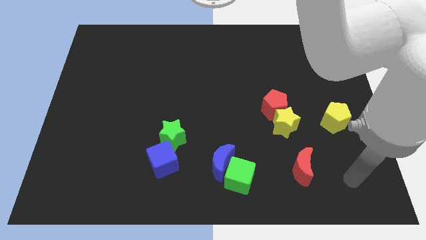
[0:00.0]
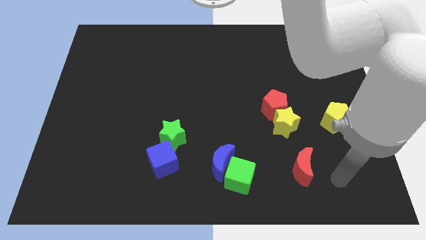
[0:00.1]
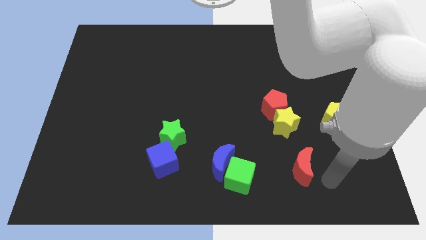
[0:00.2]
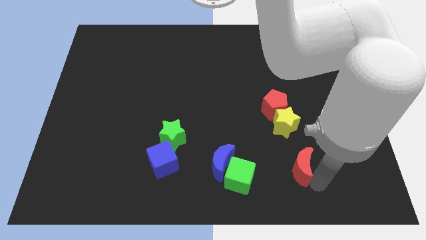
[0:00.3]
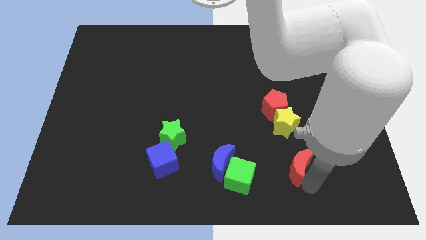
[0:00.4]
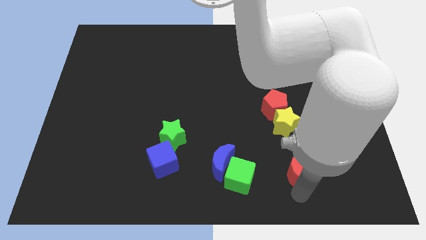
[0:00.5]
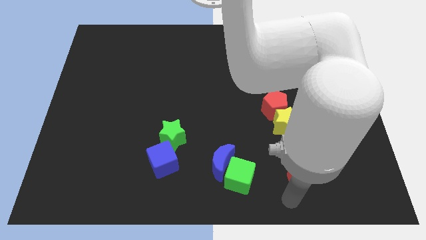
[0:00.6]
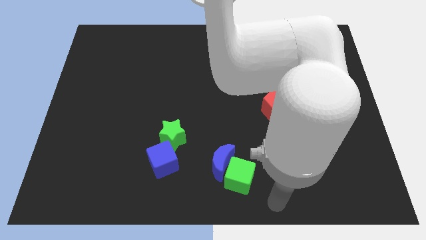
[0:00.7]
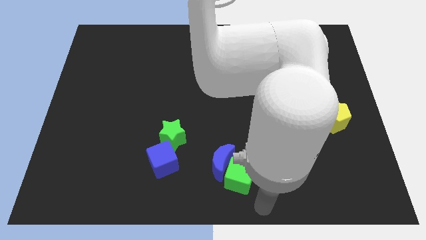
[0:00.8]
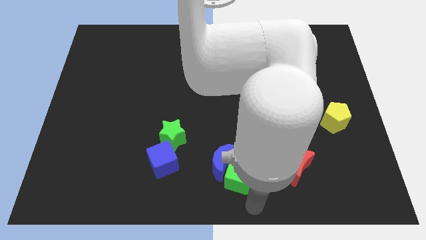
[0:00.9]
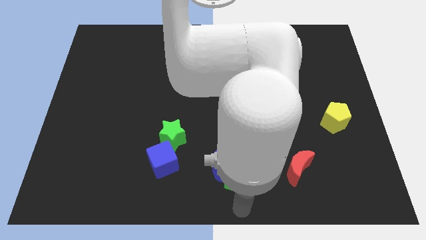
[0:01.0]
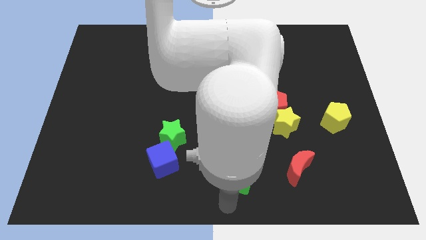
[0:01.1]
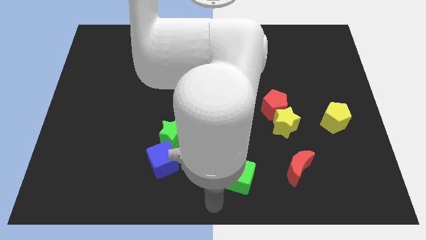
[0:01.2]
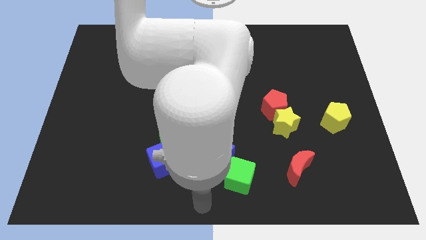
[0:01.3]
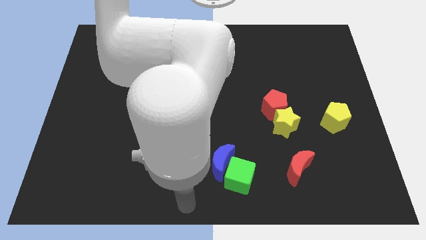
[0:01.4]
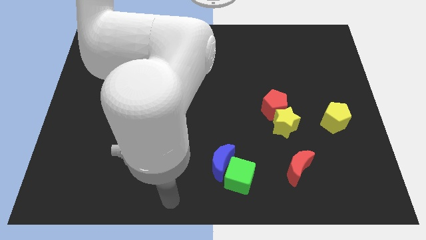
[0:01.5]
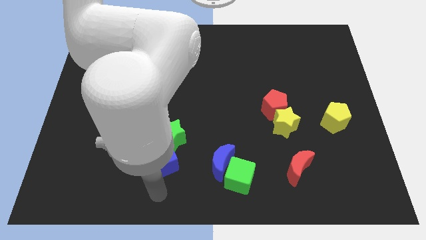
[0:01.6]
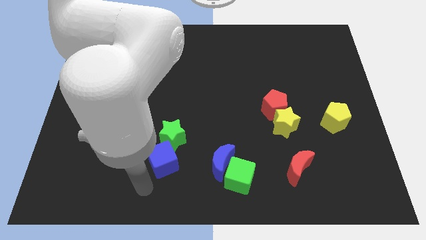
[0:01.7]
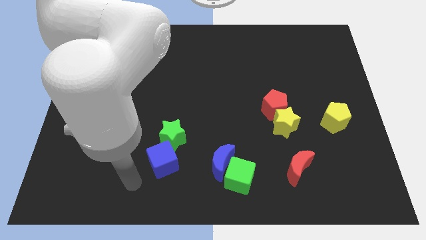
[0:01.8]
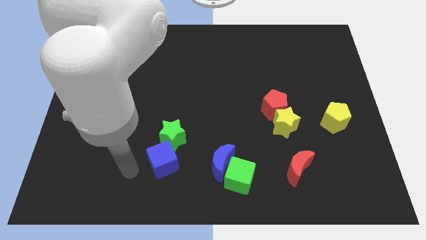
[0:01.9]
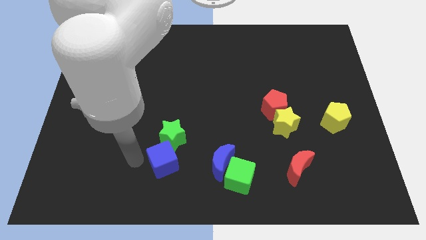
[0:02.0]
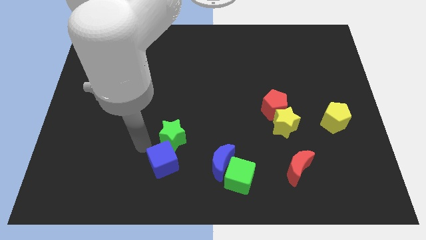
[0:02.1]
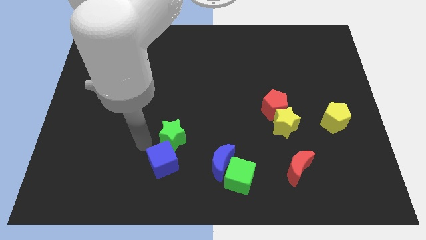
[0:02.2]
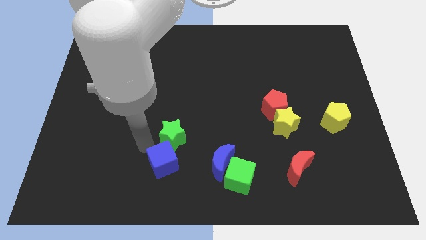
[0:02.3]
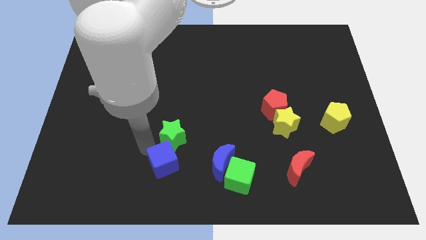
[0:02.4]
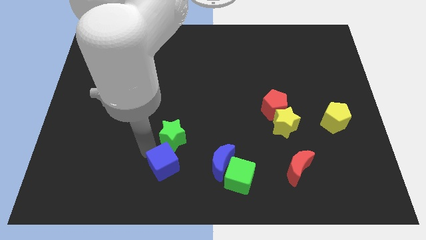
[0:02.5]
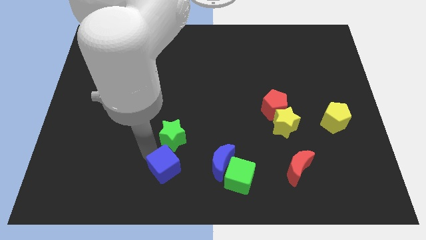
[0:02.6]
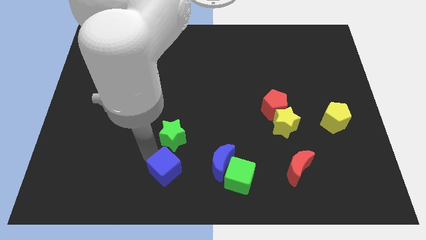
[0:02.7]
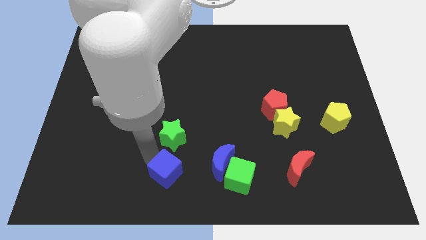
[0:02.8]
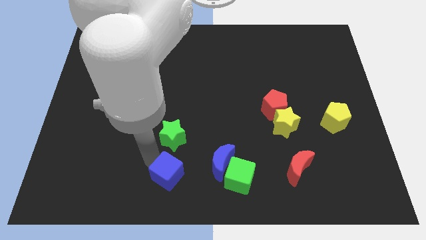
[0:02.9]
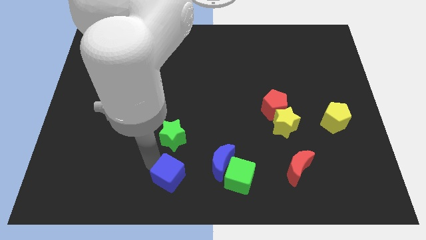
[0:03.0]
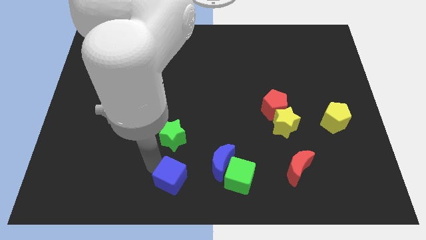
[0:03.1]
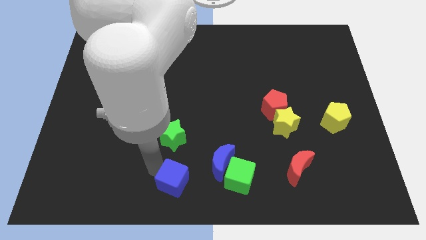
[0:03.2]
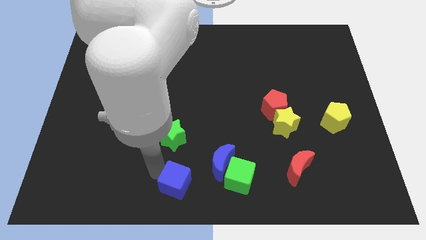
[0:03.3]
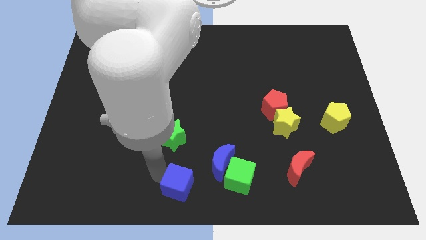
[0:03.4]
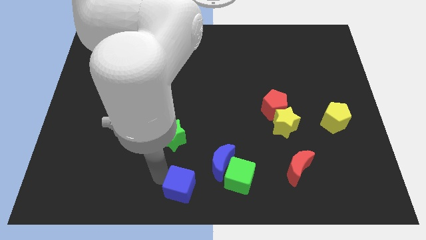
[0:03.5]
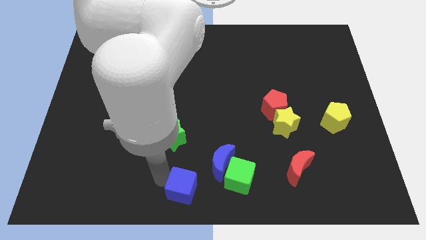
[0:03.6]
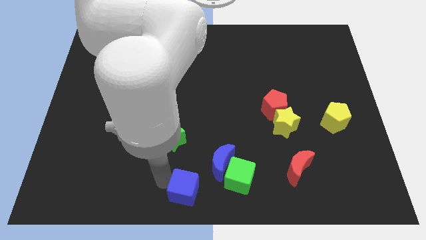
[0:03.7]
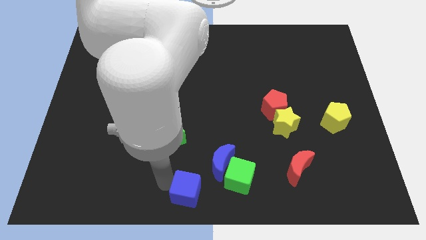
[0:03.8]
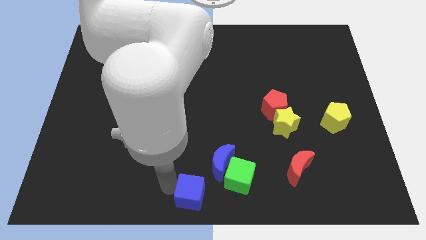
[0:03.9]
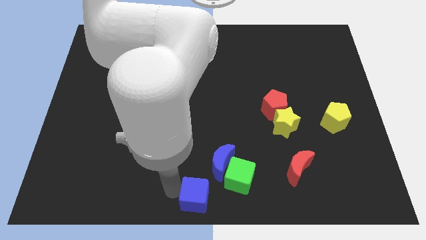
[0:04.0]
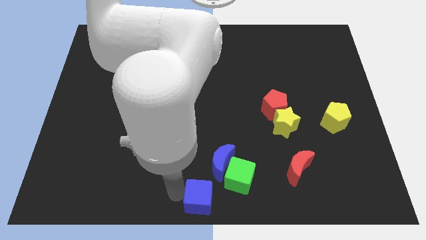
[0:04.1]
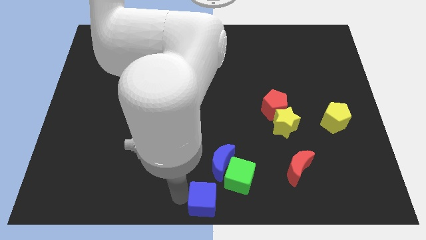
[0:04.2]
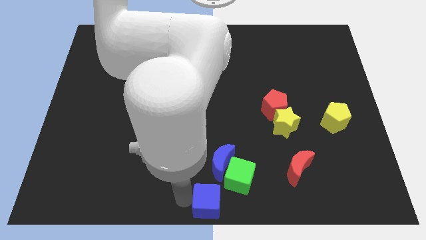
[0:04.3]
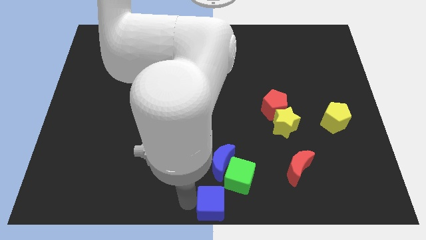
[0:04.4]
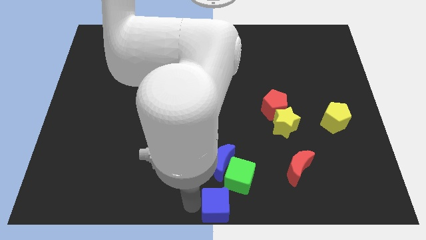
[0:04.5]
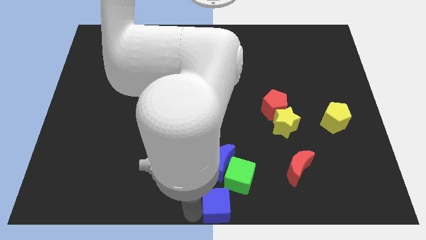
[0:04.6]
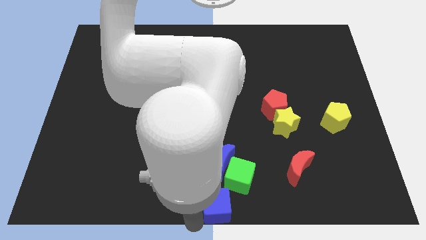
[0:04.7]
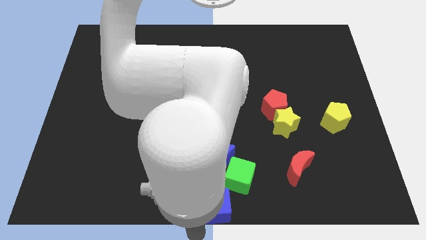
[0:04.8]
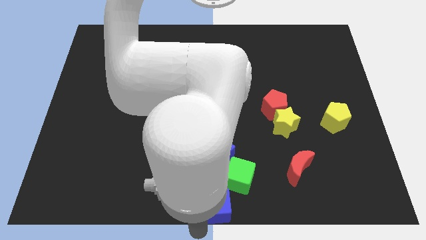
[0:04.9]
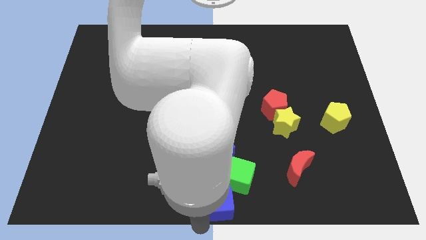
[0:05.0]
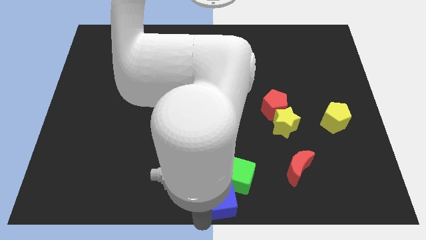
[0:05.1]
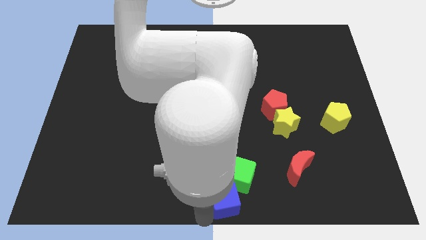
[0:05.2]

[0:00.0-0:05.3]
slide the blue cube to the green cube

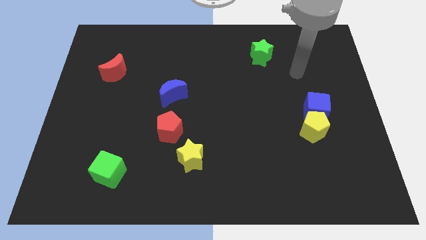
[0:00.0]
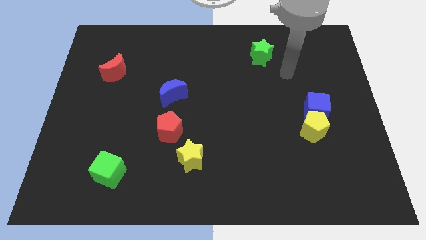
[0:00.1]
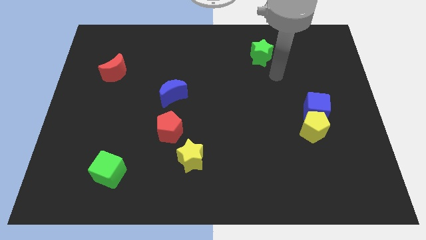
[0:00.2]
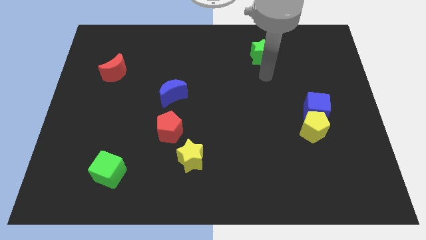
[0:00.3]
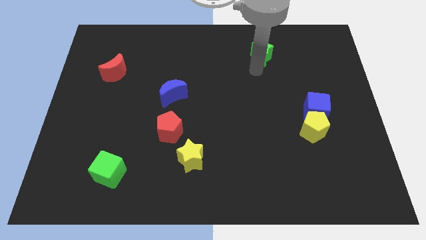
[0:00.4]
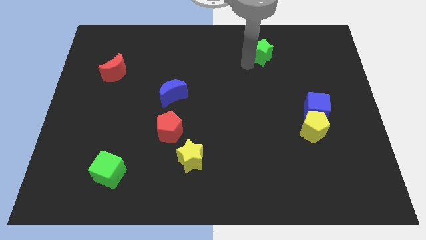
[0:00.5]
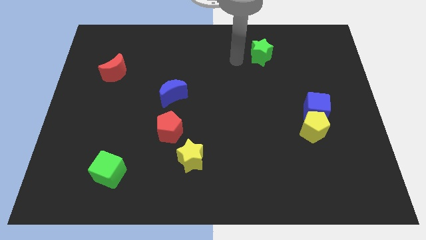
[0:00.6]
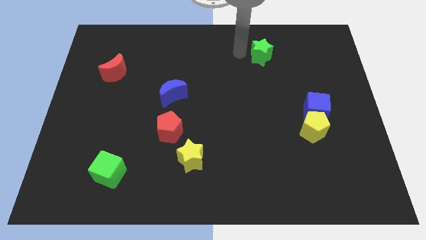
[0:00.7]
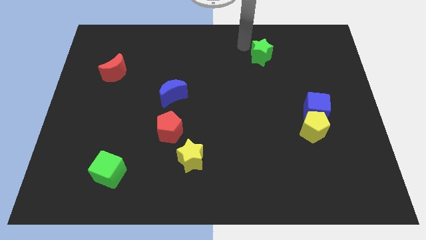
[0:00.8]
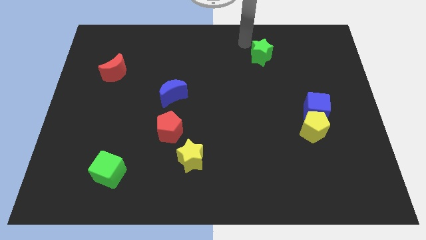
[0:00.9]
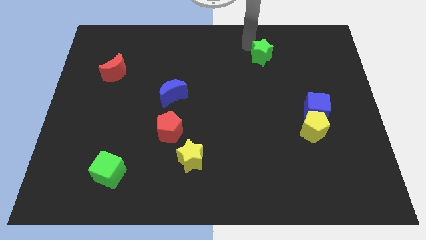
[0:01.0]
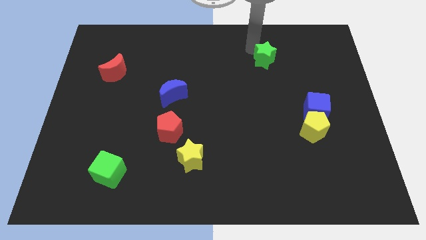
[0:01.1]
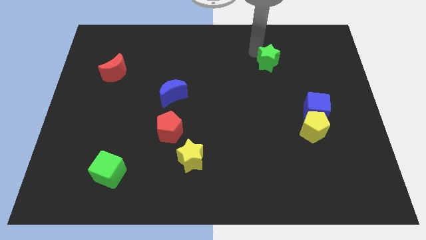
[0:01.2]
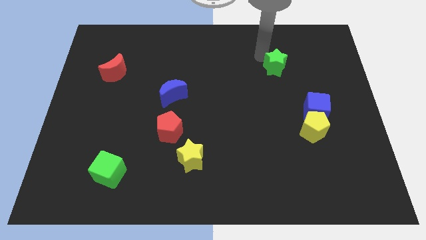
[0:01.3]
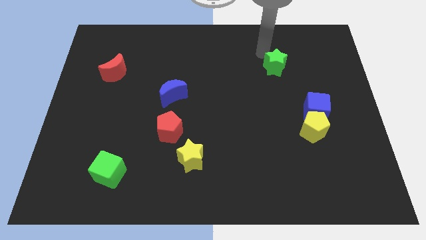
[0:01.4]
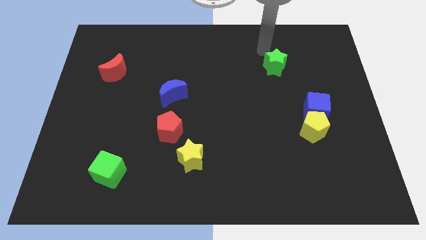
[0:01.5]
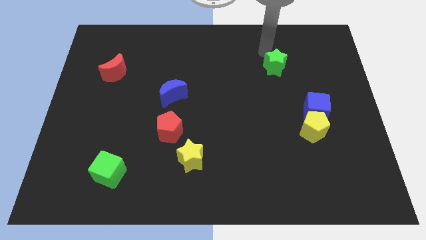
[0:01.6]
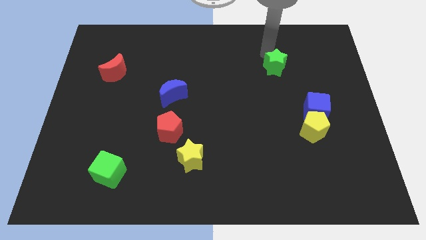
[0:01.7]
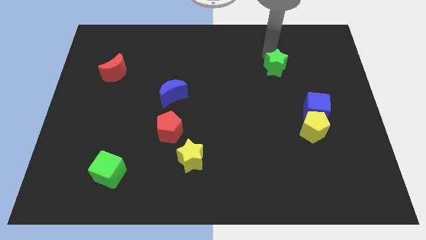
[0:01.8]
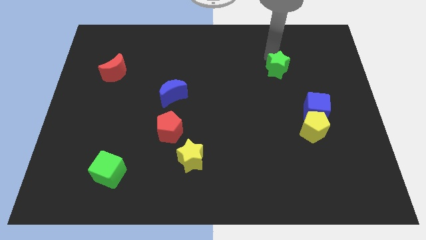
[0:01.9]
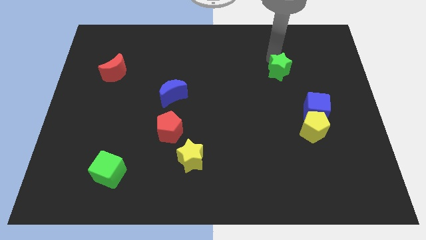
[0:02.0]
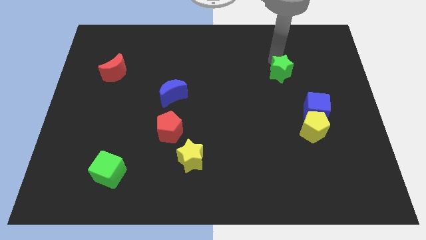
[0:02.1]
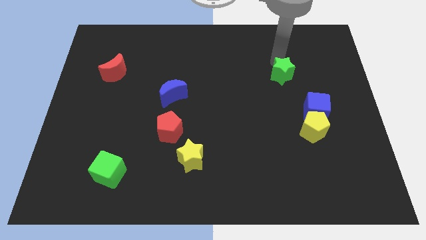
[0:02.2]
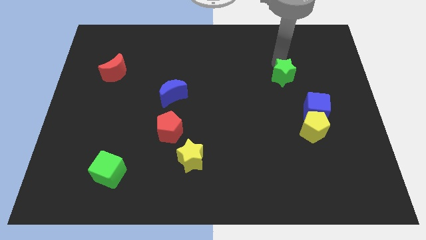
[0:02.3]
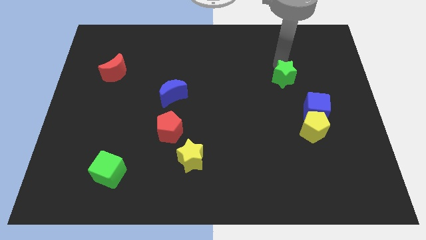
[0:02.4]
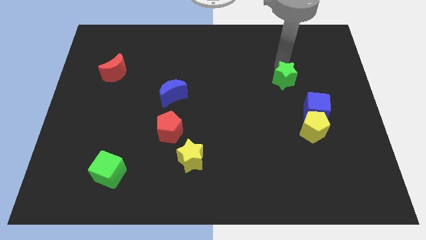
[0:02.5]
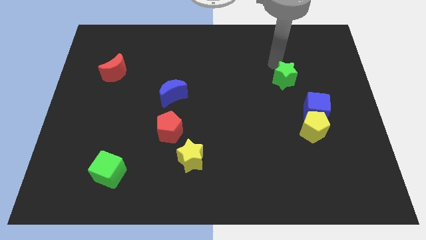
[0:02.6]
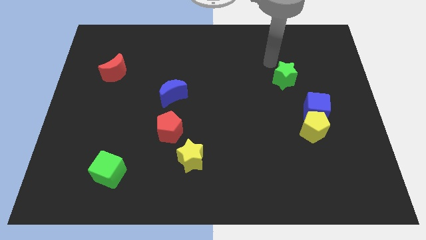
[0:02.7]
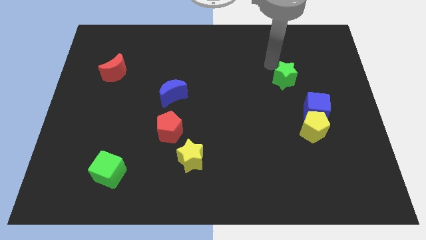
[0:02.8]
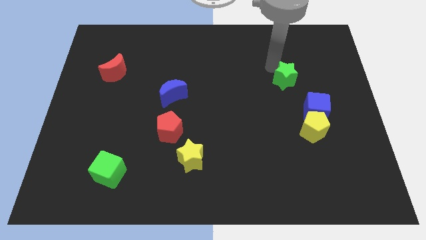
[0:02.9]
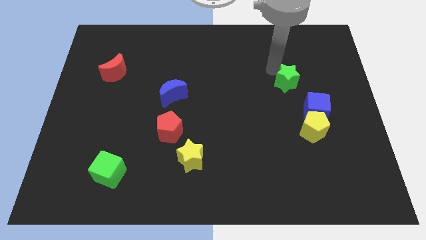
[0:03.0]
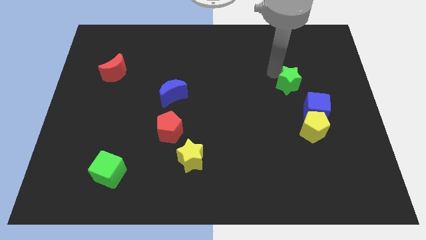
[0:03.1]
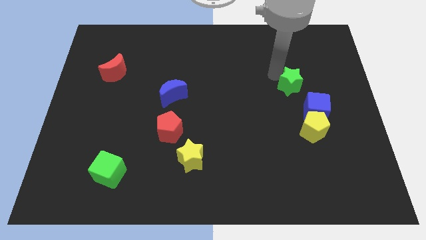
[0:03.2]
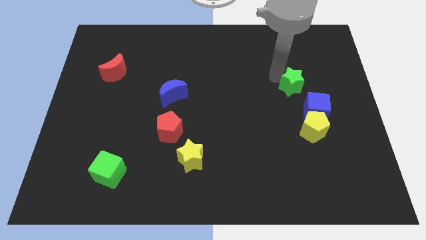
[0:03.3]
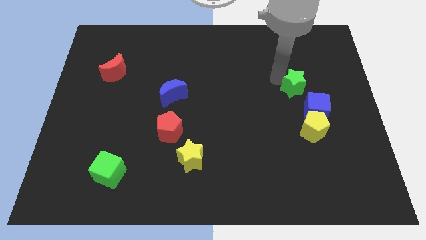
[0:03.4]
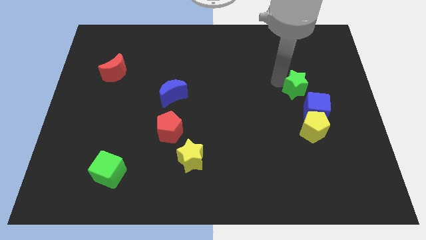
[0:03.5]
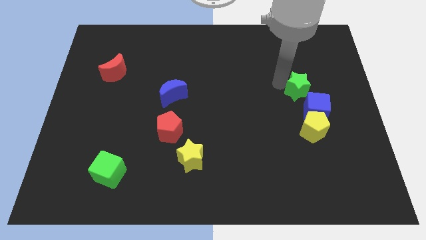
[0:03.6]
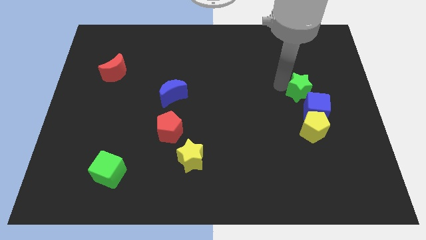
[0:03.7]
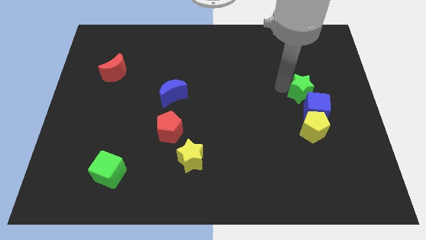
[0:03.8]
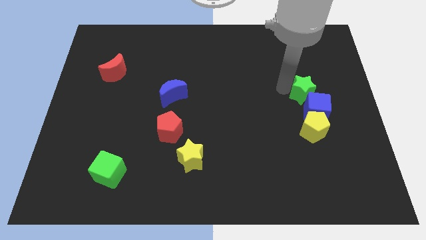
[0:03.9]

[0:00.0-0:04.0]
put the green star close to the blue cube
